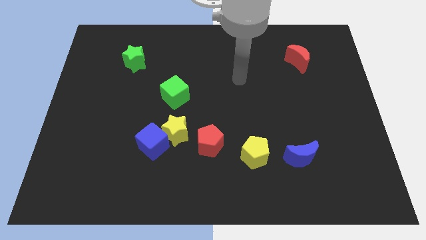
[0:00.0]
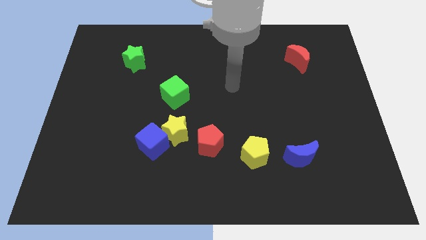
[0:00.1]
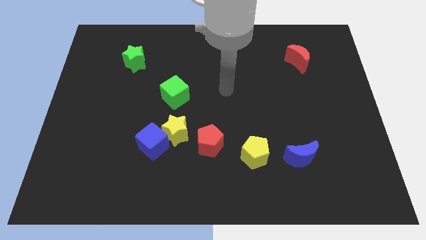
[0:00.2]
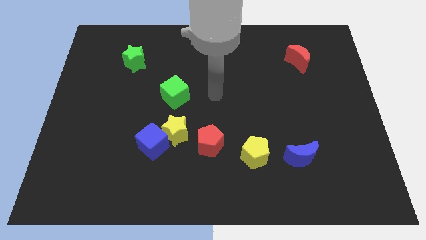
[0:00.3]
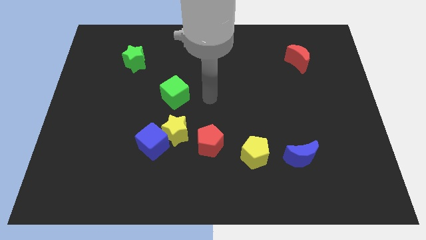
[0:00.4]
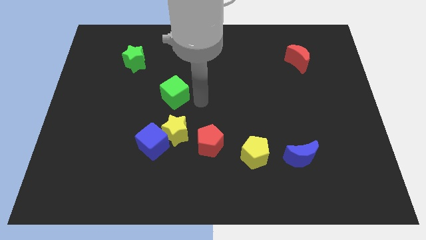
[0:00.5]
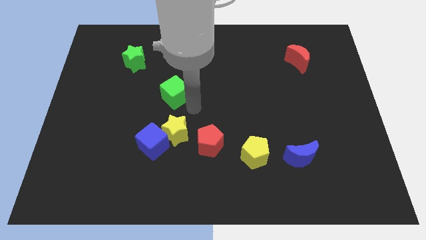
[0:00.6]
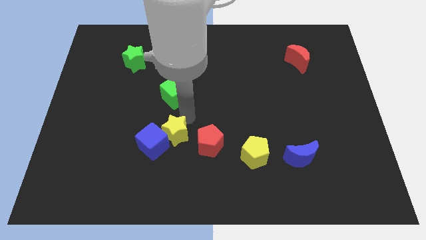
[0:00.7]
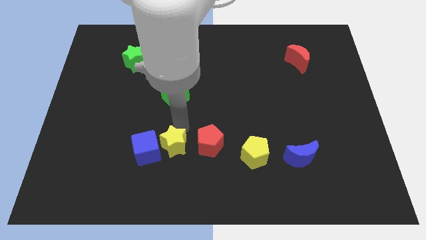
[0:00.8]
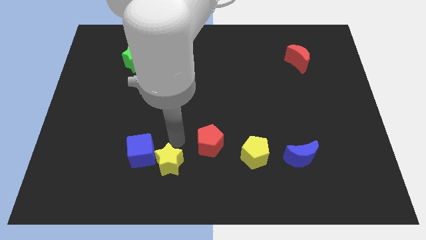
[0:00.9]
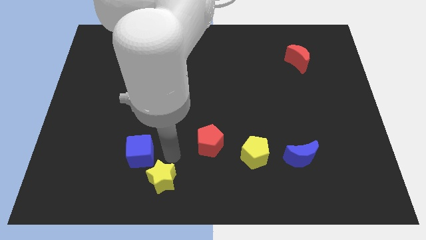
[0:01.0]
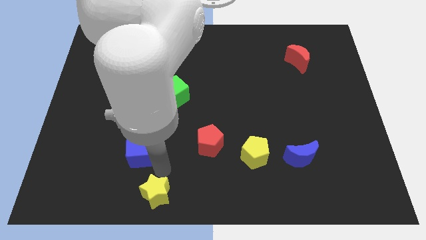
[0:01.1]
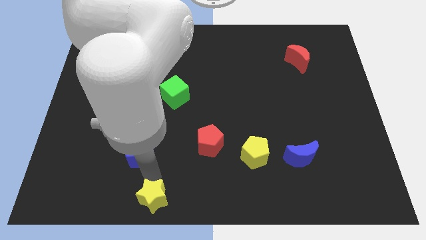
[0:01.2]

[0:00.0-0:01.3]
pull the blue cube apart from the yellow star

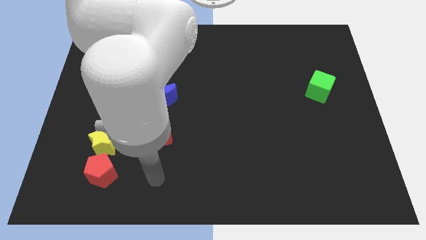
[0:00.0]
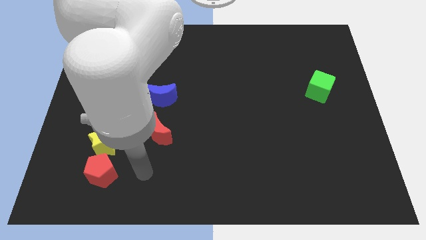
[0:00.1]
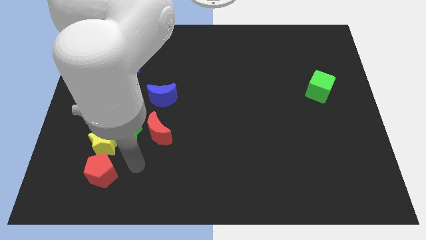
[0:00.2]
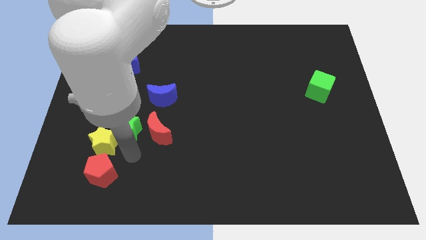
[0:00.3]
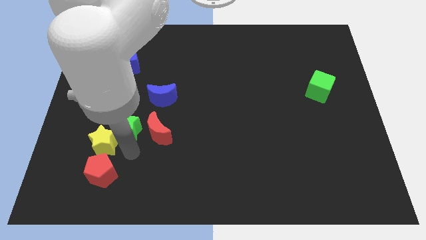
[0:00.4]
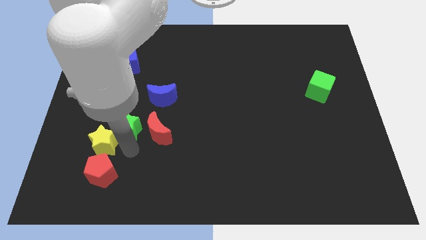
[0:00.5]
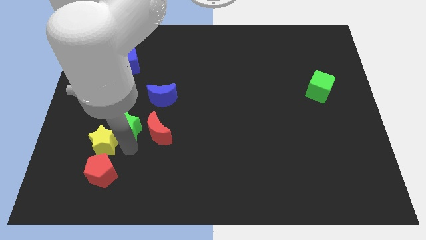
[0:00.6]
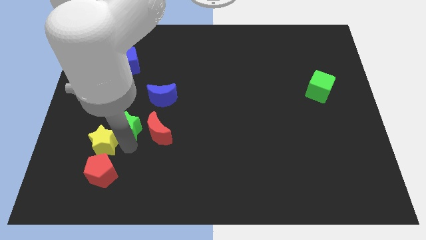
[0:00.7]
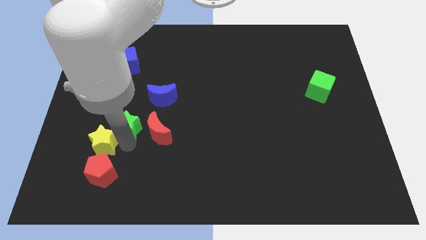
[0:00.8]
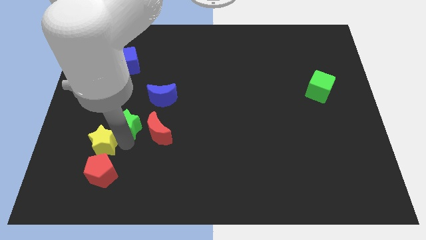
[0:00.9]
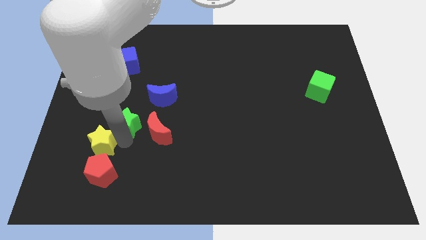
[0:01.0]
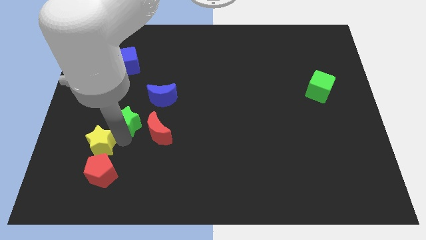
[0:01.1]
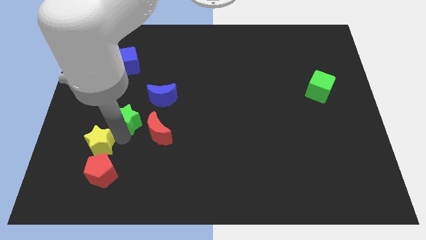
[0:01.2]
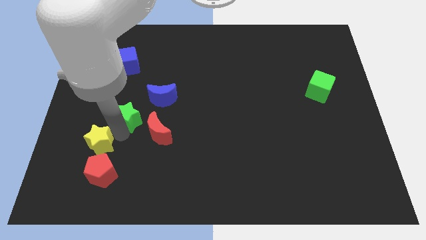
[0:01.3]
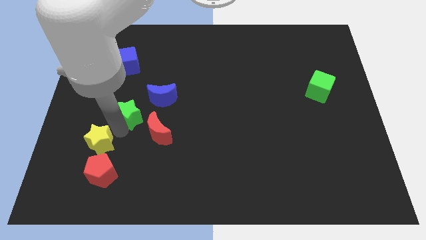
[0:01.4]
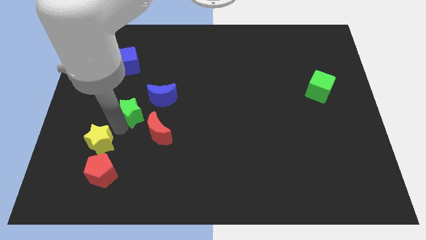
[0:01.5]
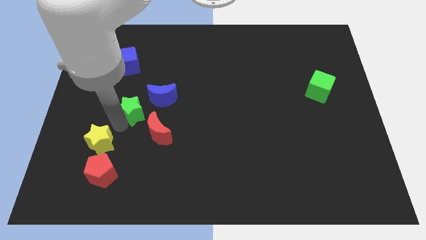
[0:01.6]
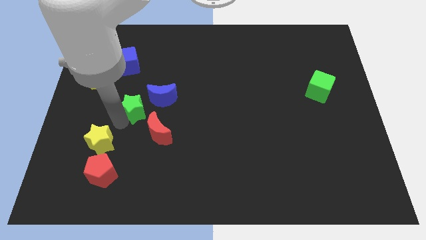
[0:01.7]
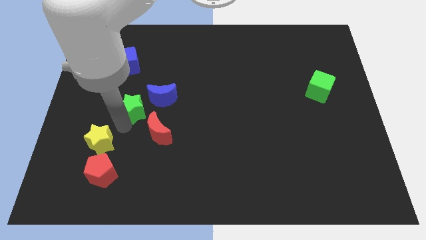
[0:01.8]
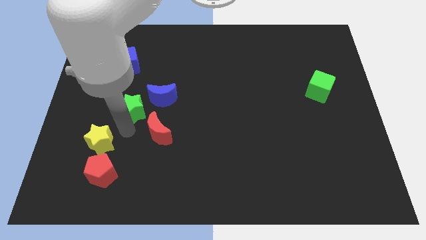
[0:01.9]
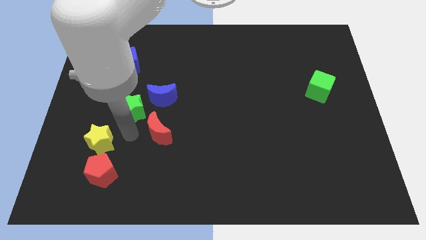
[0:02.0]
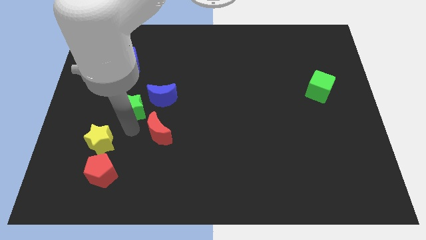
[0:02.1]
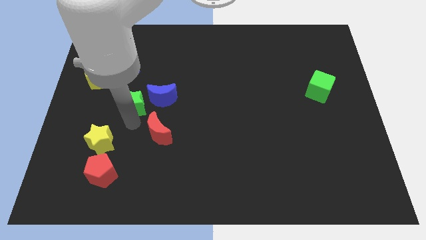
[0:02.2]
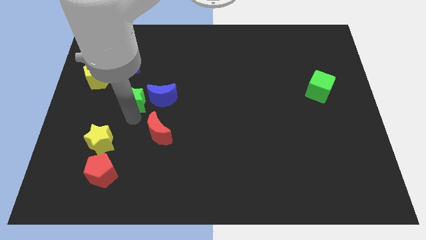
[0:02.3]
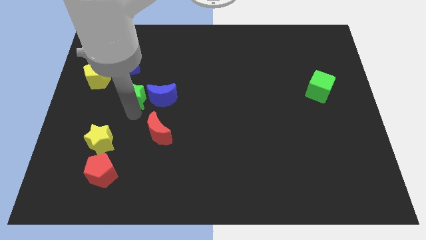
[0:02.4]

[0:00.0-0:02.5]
pull the green star apart from the yellow star and red moon

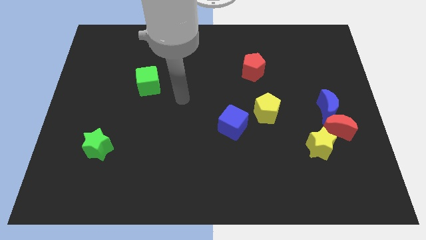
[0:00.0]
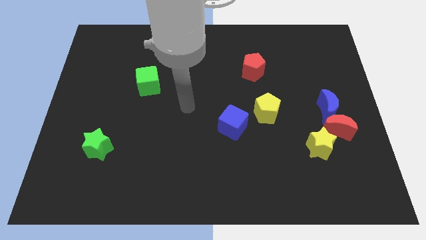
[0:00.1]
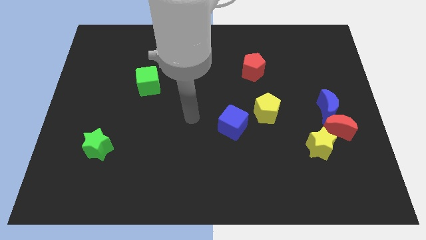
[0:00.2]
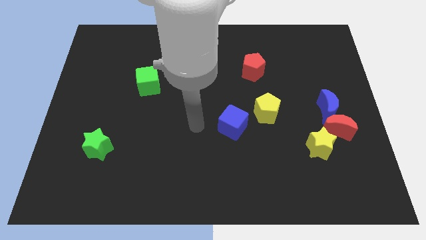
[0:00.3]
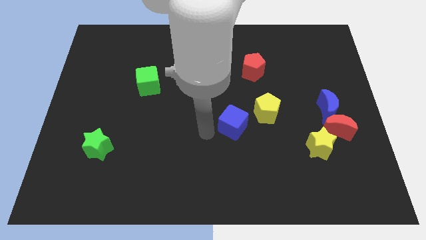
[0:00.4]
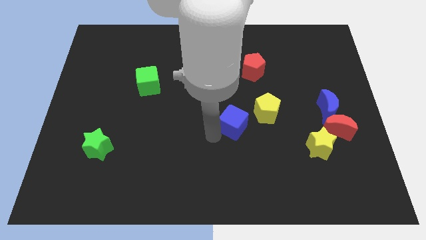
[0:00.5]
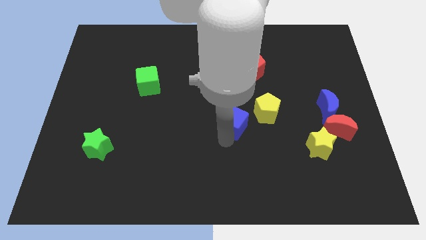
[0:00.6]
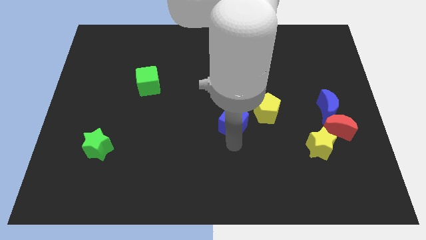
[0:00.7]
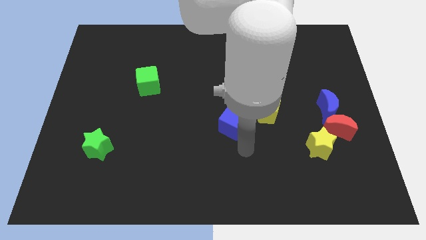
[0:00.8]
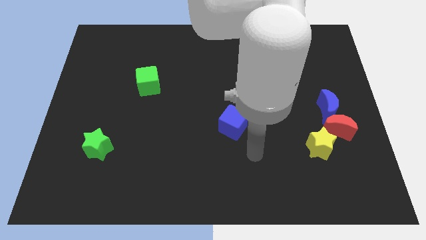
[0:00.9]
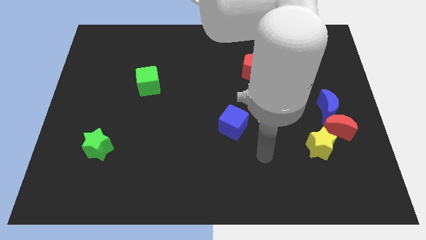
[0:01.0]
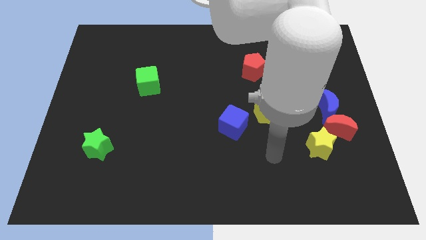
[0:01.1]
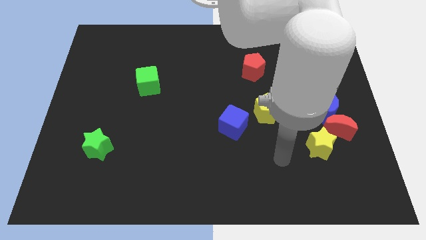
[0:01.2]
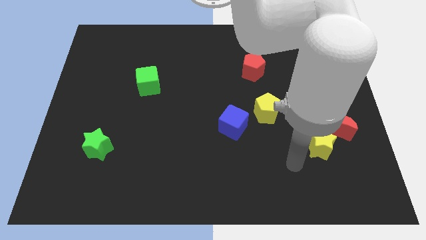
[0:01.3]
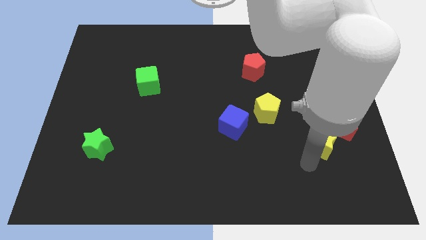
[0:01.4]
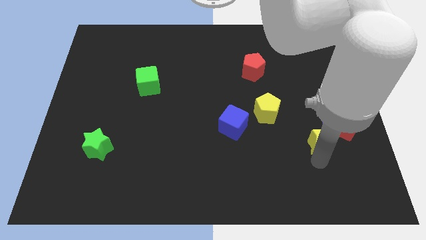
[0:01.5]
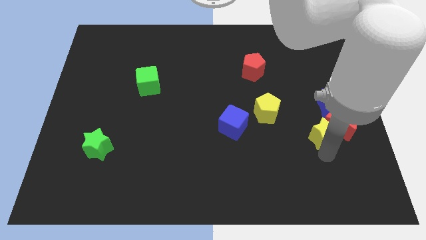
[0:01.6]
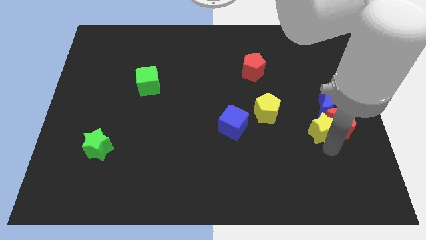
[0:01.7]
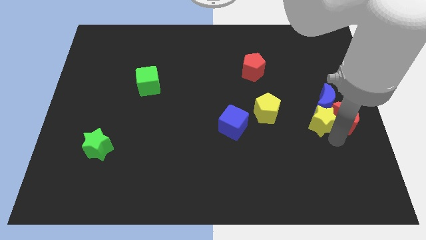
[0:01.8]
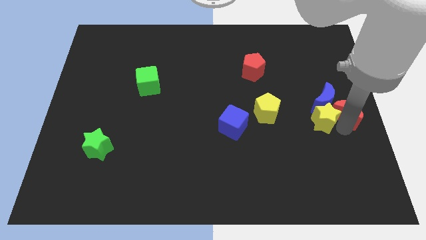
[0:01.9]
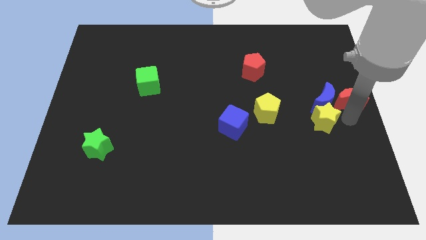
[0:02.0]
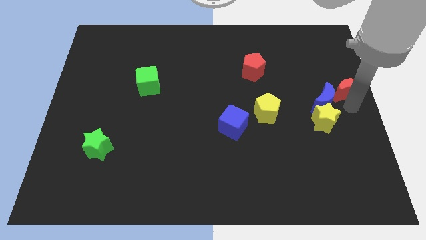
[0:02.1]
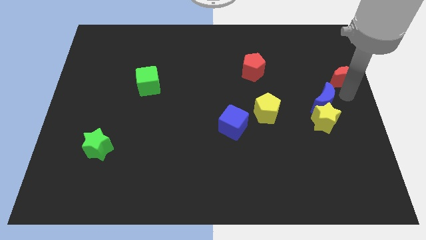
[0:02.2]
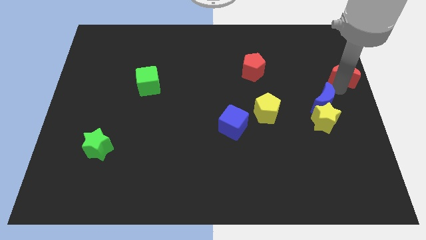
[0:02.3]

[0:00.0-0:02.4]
separate the blue moon from the red moon

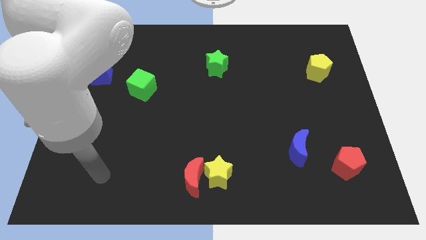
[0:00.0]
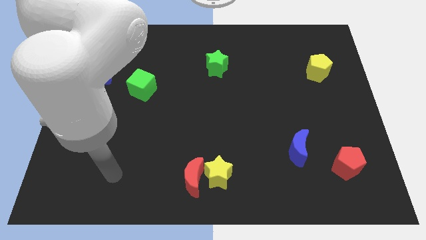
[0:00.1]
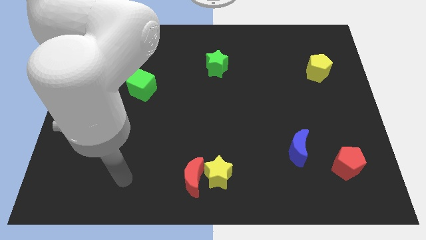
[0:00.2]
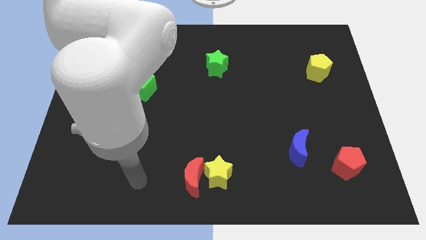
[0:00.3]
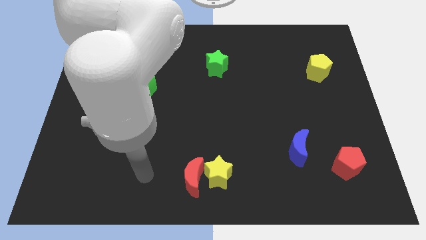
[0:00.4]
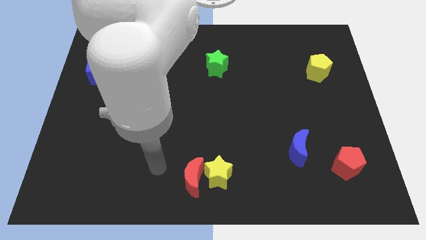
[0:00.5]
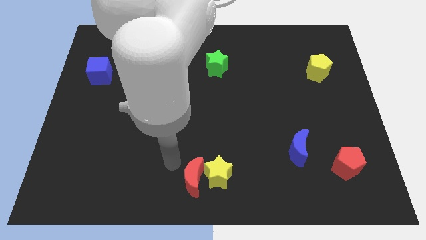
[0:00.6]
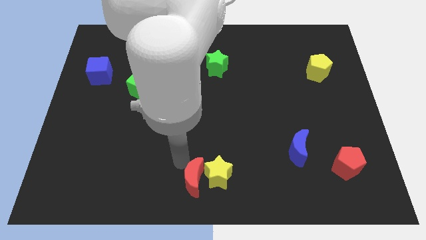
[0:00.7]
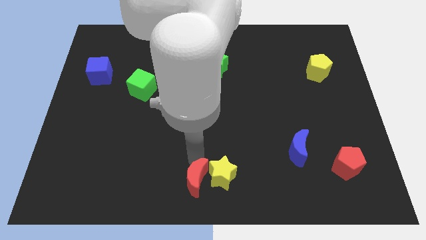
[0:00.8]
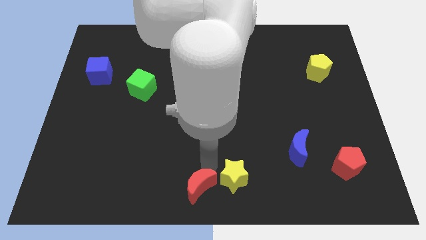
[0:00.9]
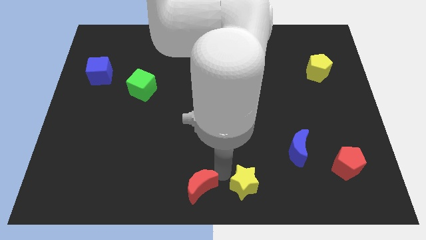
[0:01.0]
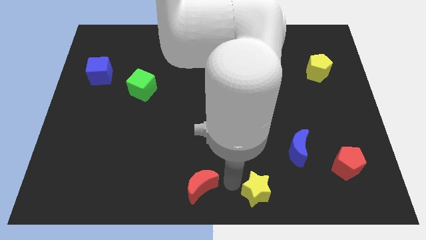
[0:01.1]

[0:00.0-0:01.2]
separate the red moon from the yellow star

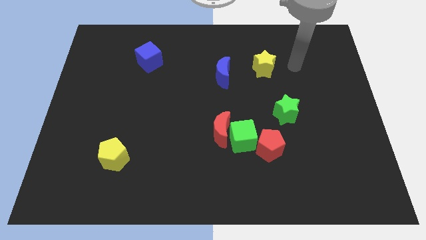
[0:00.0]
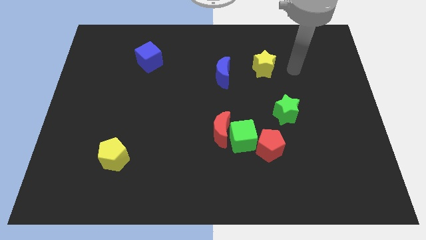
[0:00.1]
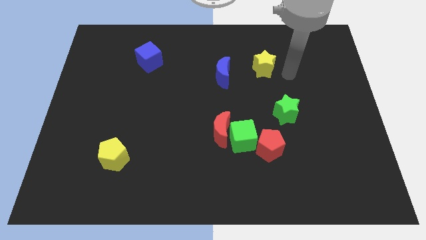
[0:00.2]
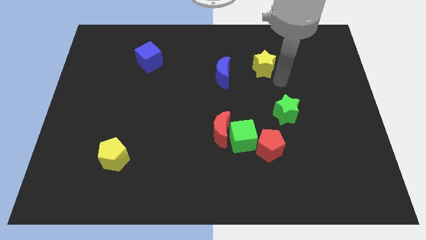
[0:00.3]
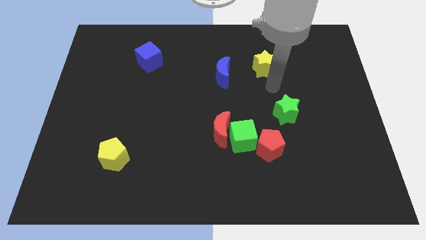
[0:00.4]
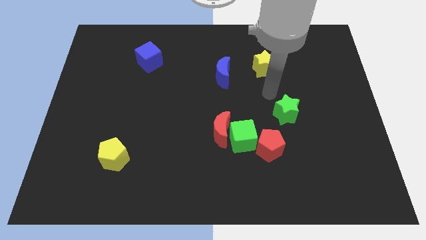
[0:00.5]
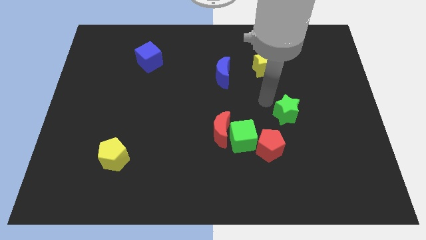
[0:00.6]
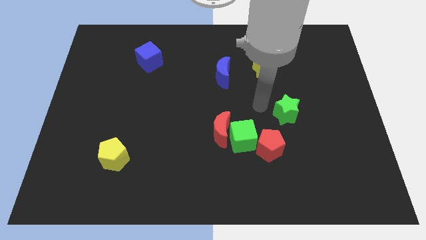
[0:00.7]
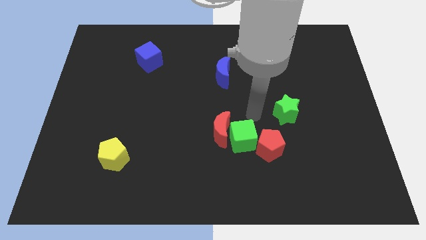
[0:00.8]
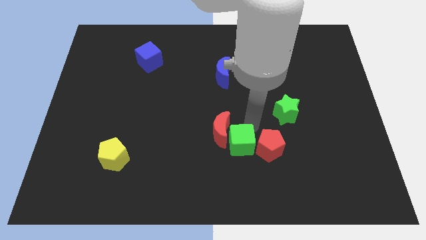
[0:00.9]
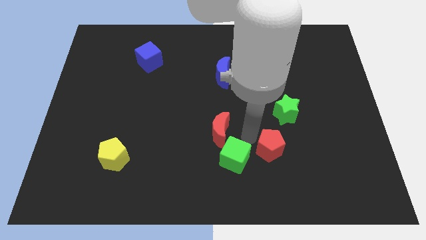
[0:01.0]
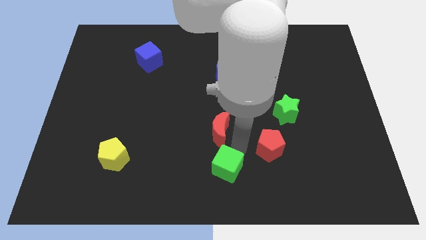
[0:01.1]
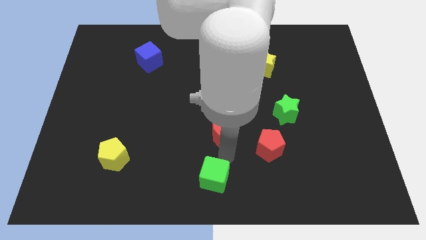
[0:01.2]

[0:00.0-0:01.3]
pull the red moon apart from the green cube

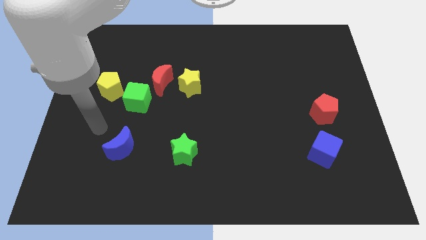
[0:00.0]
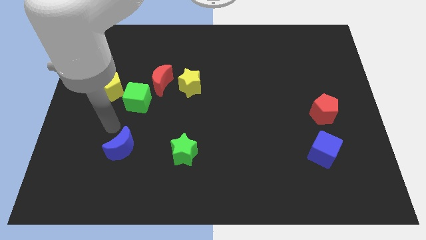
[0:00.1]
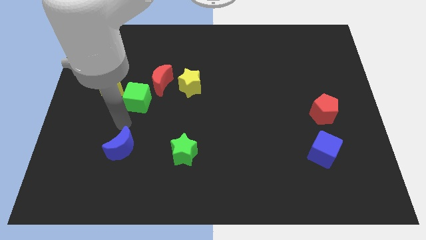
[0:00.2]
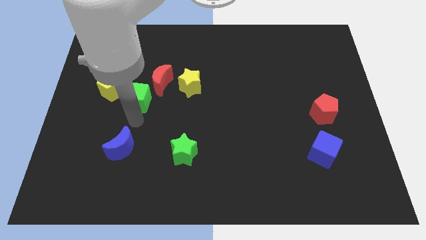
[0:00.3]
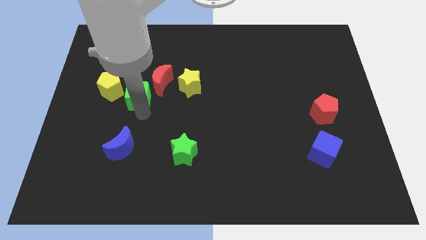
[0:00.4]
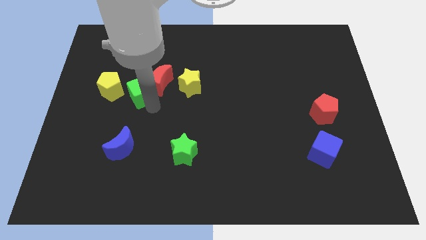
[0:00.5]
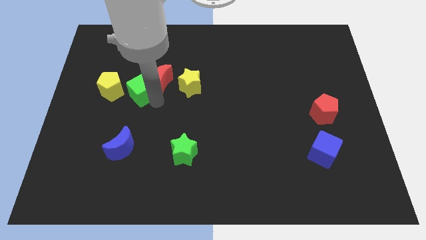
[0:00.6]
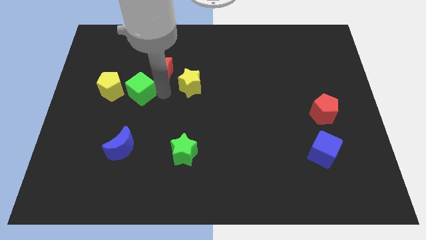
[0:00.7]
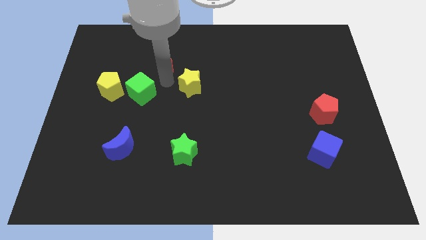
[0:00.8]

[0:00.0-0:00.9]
pull the yellow star apart from the red moon
